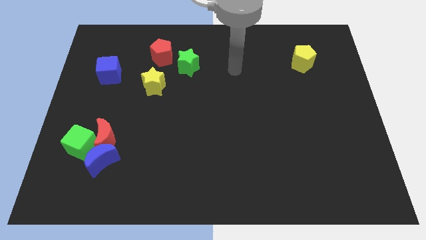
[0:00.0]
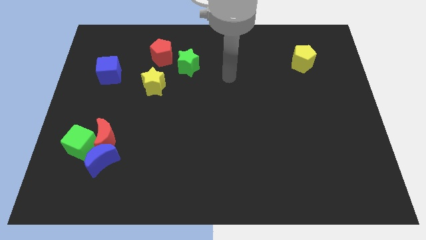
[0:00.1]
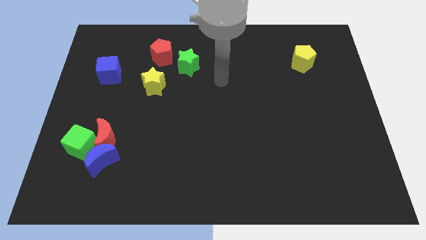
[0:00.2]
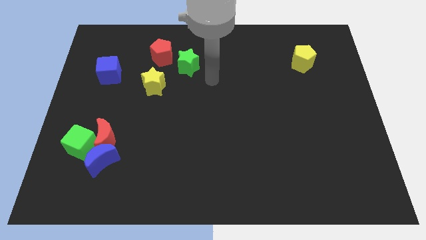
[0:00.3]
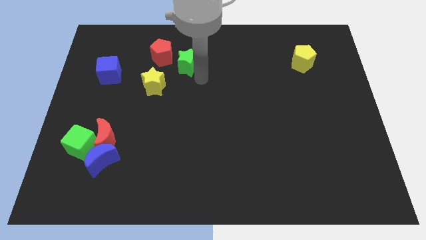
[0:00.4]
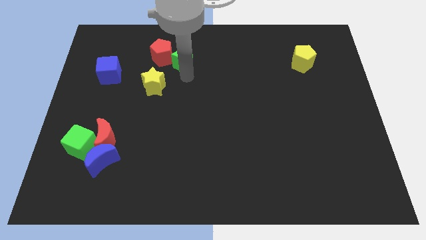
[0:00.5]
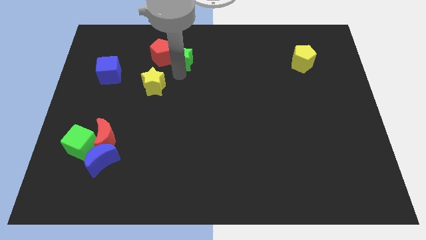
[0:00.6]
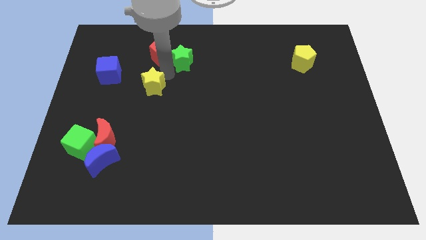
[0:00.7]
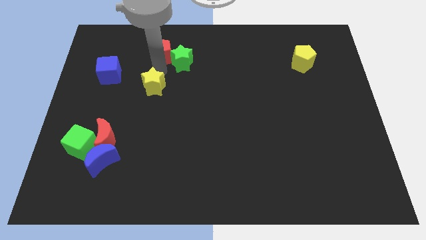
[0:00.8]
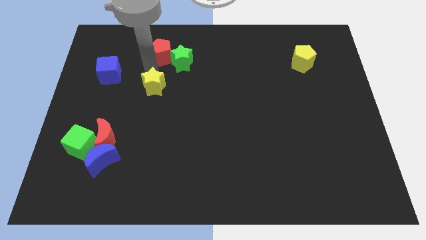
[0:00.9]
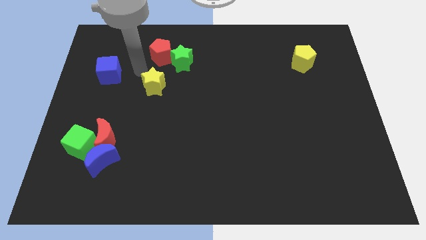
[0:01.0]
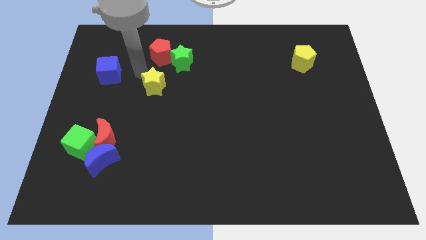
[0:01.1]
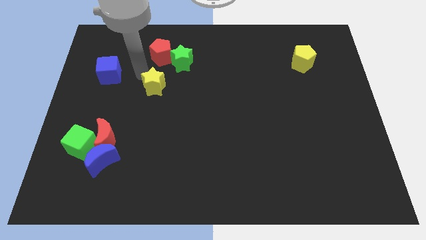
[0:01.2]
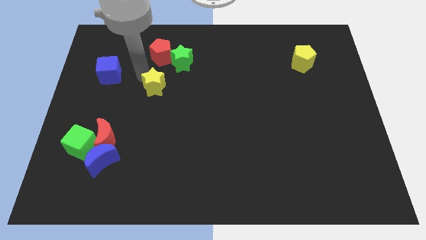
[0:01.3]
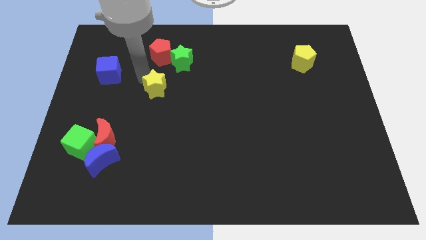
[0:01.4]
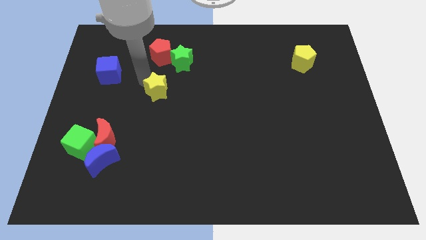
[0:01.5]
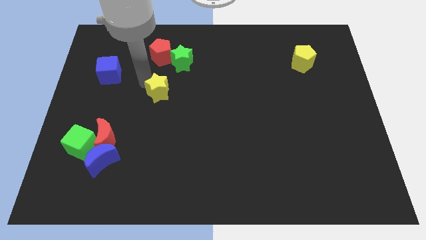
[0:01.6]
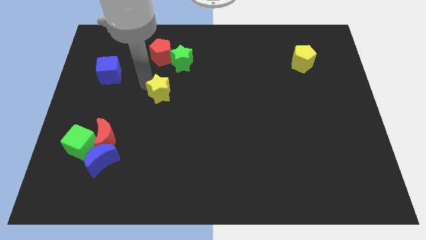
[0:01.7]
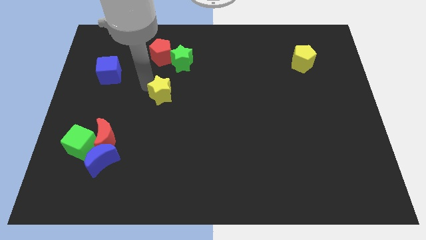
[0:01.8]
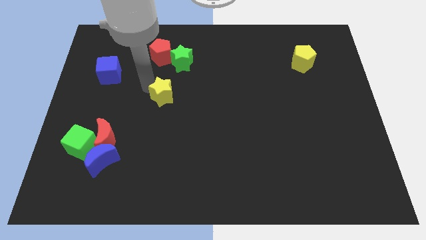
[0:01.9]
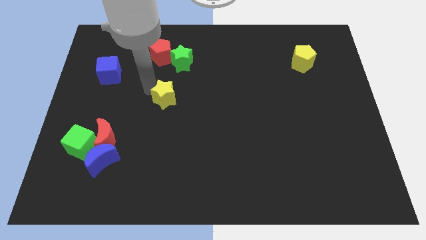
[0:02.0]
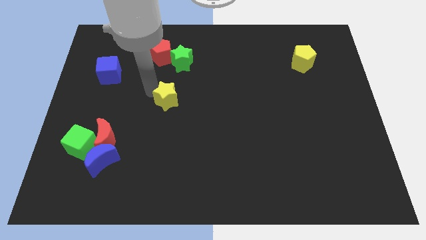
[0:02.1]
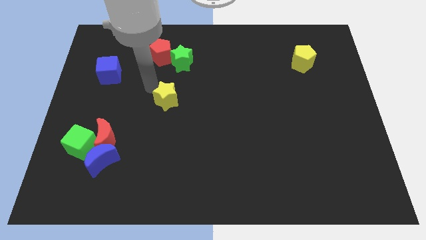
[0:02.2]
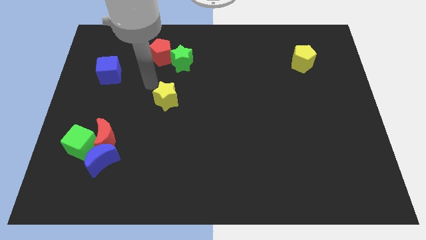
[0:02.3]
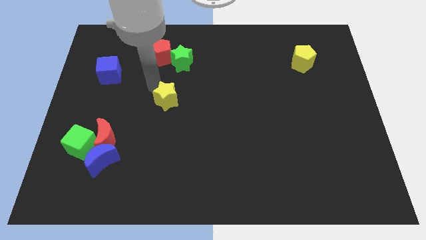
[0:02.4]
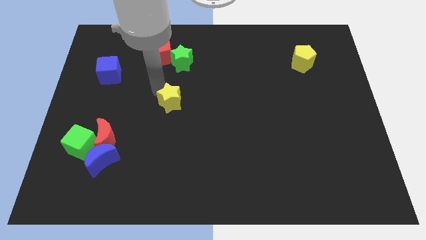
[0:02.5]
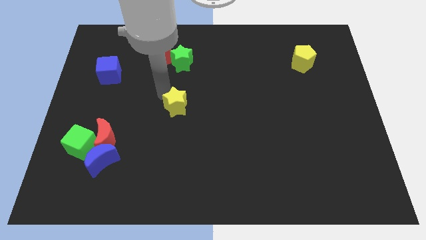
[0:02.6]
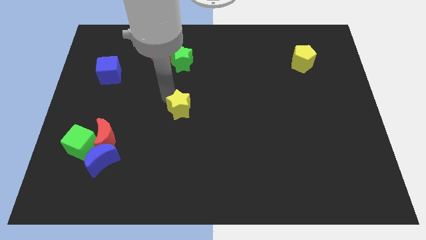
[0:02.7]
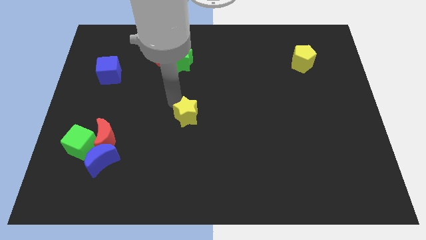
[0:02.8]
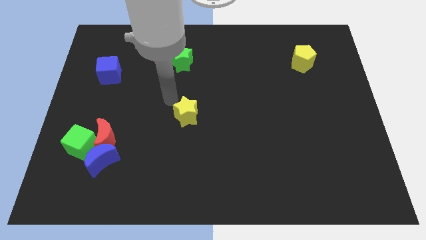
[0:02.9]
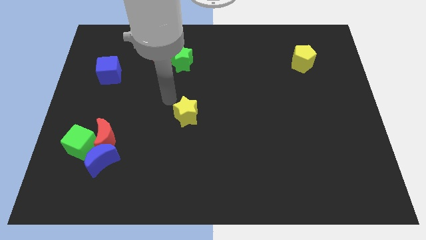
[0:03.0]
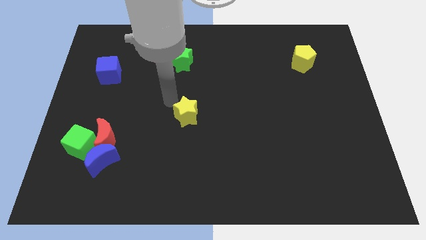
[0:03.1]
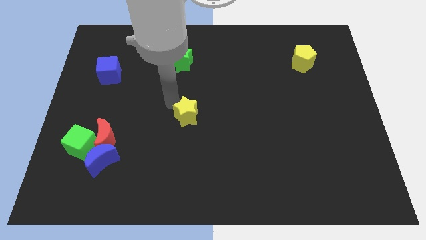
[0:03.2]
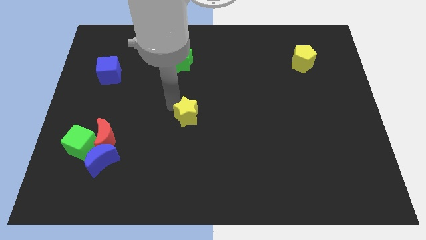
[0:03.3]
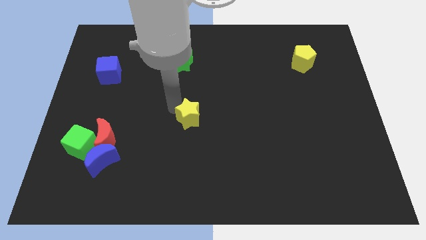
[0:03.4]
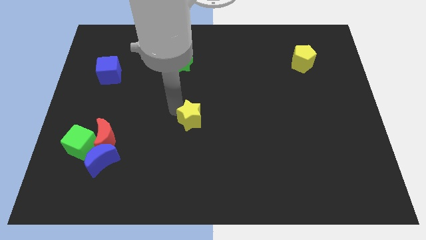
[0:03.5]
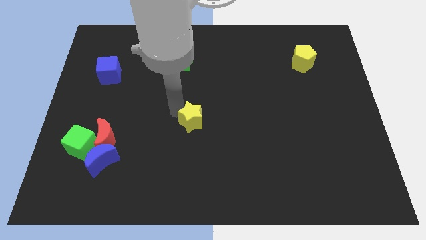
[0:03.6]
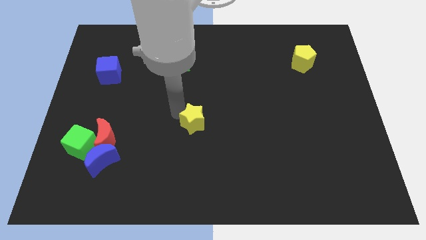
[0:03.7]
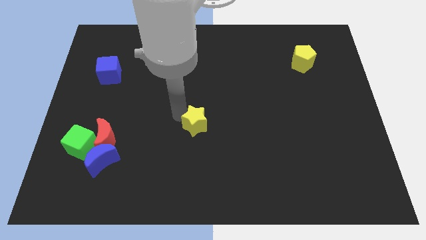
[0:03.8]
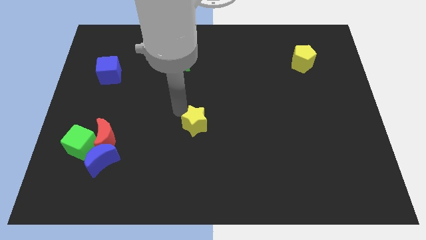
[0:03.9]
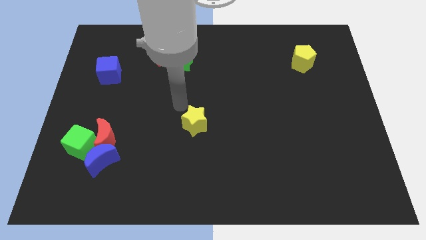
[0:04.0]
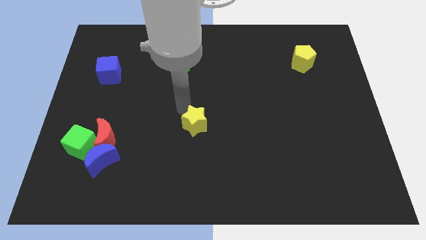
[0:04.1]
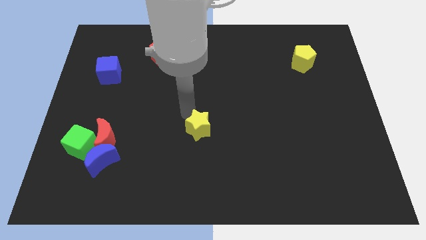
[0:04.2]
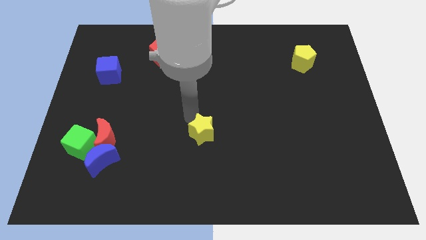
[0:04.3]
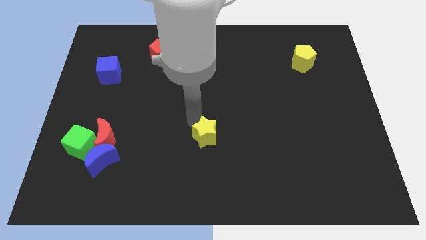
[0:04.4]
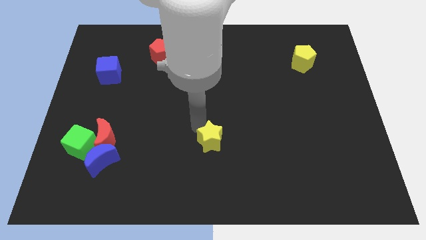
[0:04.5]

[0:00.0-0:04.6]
slide the yellow star down and then to the right

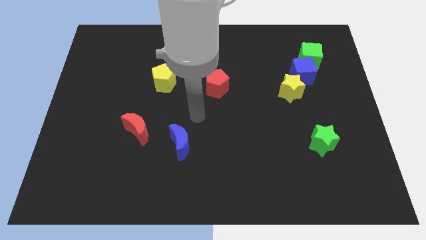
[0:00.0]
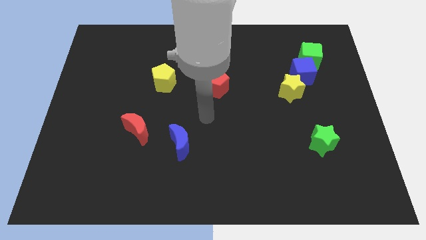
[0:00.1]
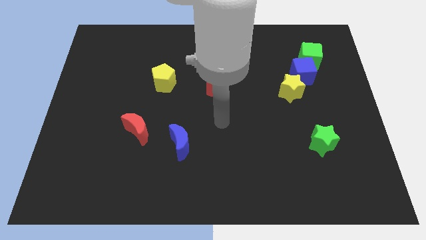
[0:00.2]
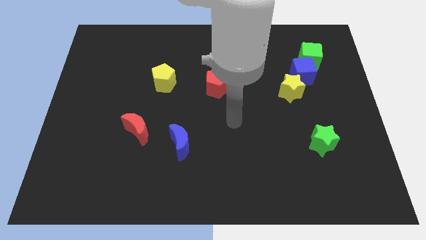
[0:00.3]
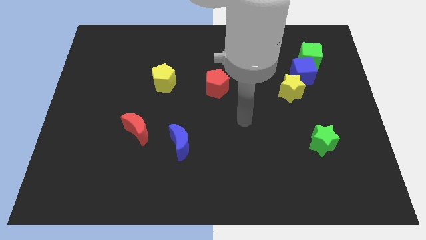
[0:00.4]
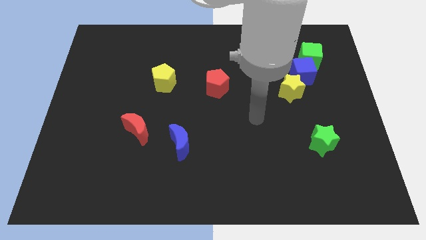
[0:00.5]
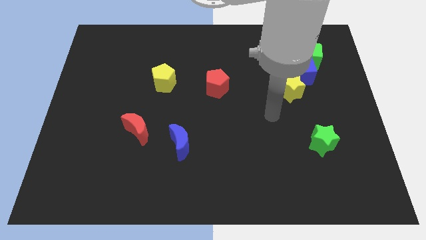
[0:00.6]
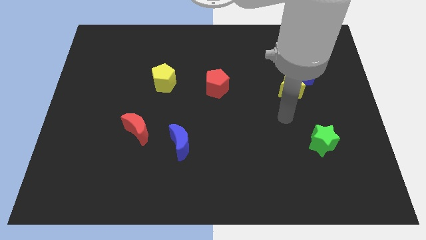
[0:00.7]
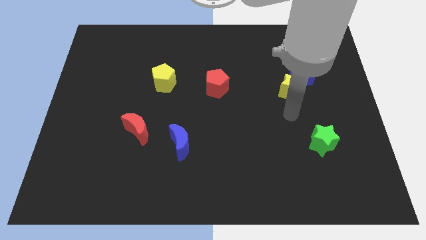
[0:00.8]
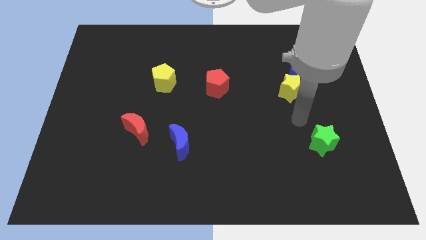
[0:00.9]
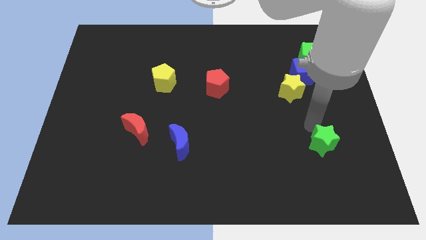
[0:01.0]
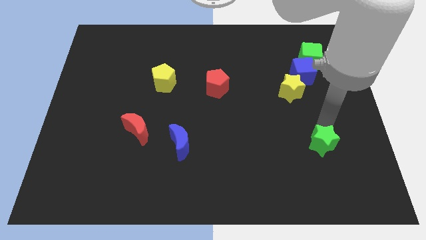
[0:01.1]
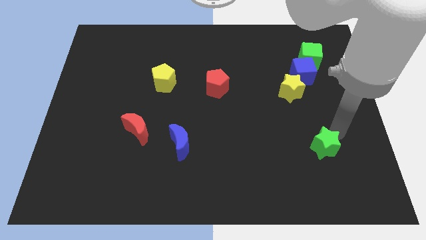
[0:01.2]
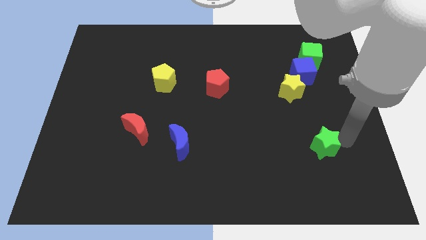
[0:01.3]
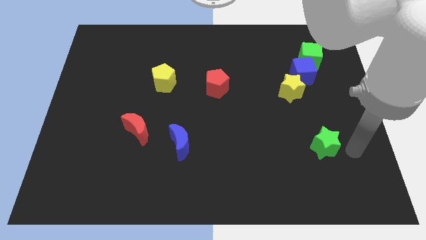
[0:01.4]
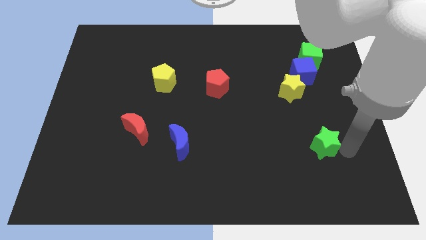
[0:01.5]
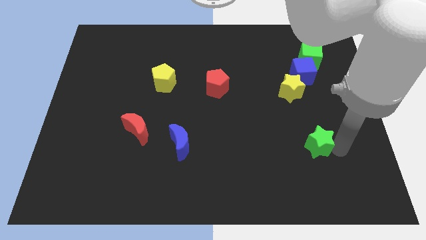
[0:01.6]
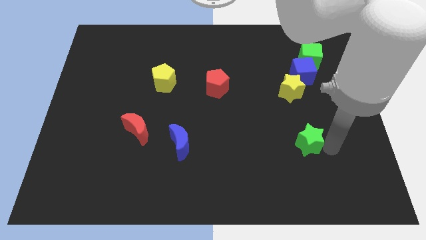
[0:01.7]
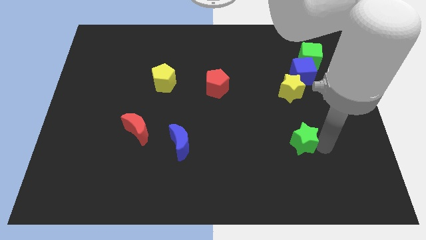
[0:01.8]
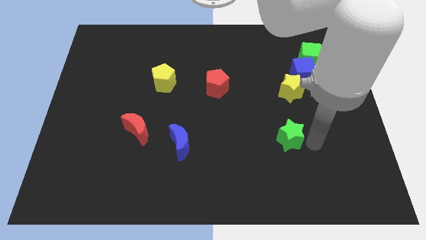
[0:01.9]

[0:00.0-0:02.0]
slightly move the green star left

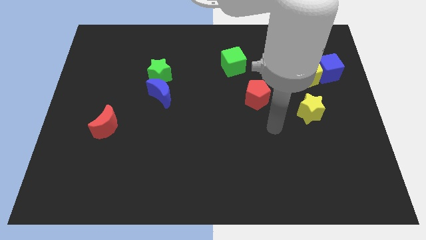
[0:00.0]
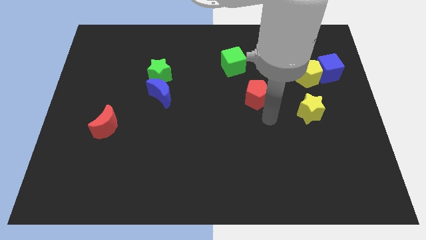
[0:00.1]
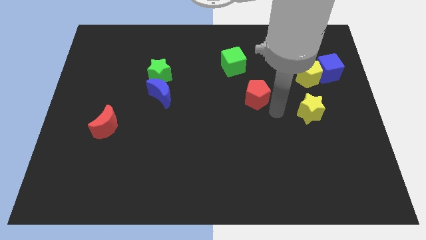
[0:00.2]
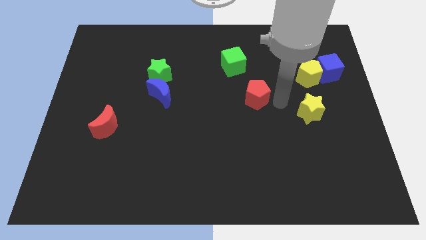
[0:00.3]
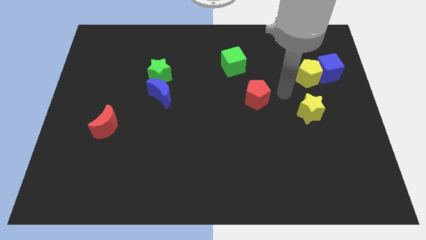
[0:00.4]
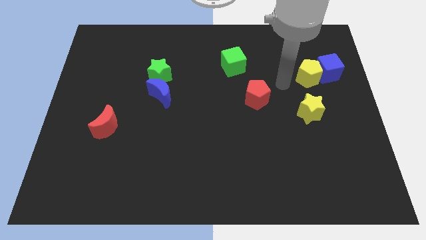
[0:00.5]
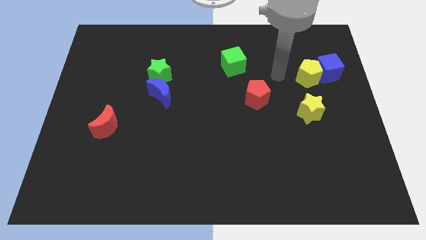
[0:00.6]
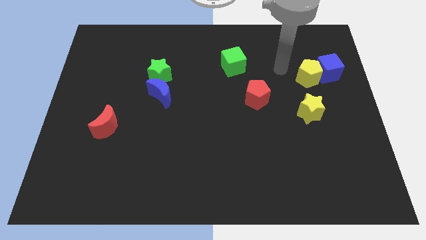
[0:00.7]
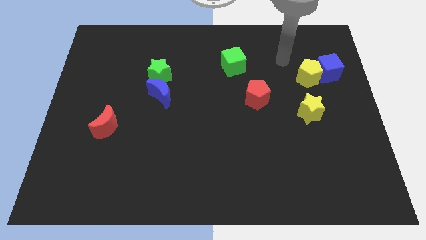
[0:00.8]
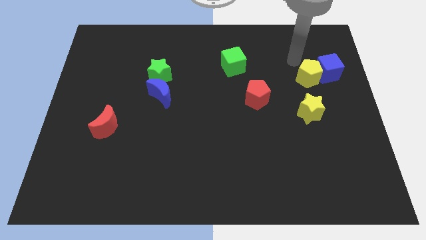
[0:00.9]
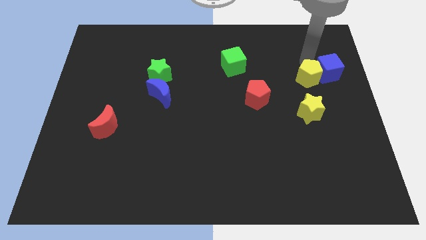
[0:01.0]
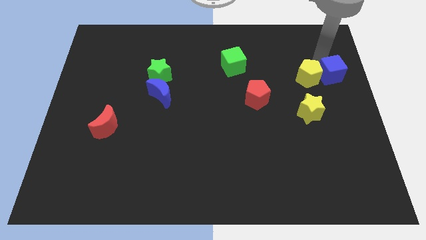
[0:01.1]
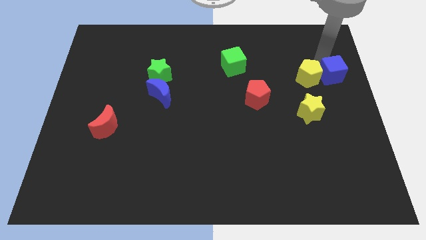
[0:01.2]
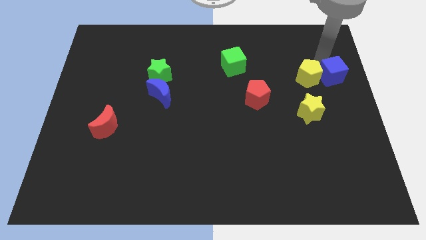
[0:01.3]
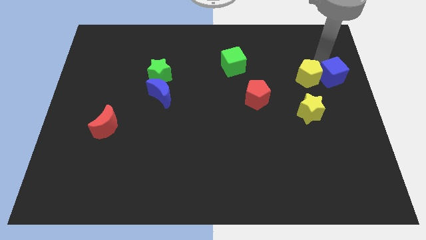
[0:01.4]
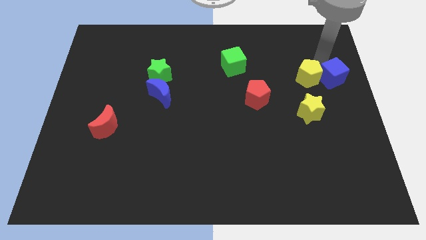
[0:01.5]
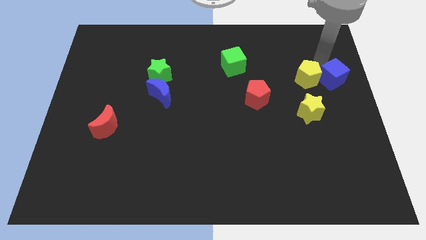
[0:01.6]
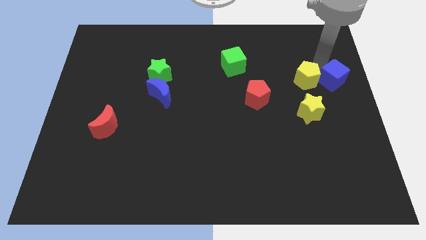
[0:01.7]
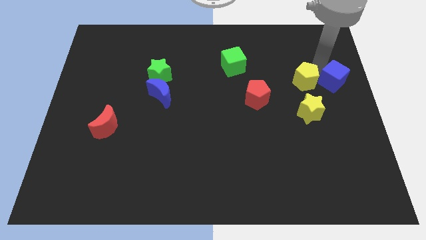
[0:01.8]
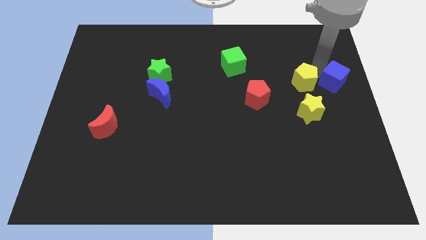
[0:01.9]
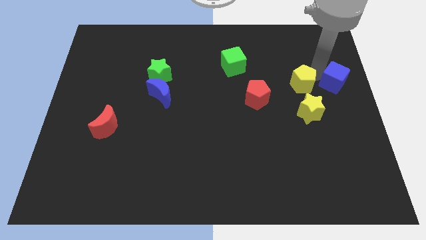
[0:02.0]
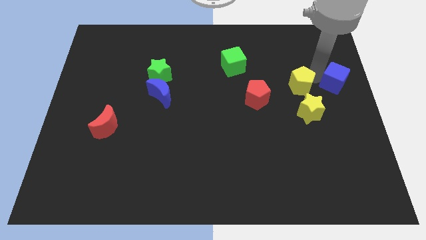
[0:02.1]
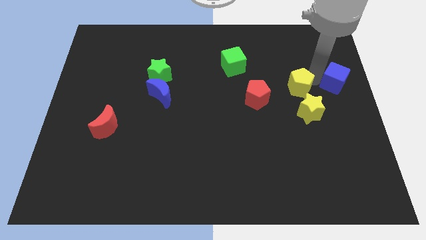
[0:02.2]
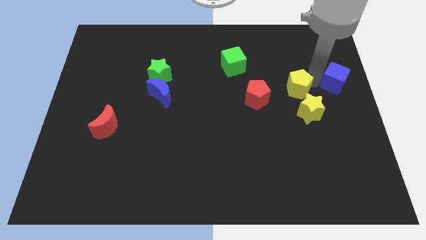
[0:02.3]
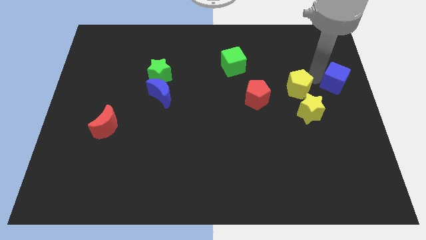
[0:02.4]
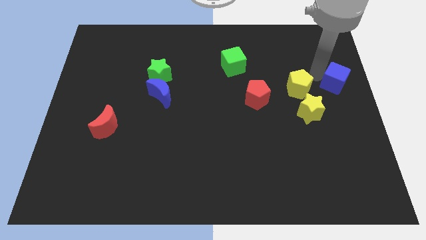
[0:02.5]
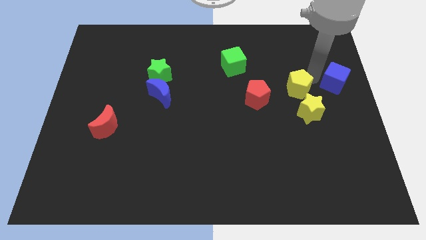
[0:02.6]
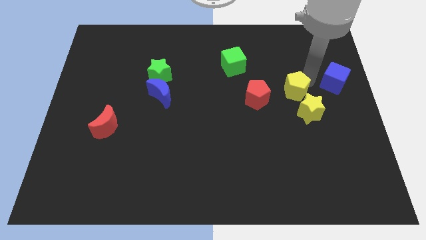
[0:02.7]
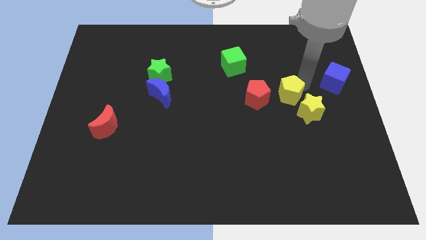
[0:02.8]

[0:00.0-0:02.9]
move the yellow pentagon somewhat diagonally downwards and left
